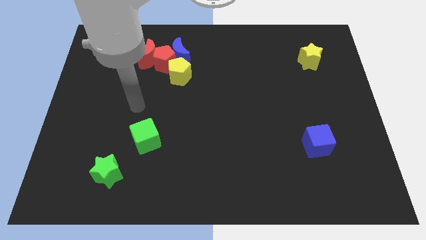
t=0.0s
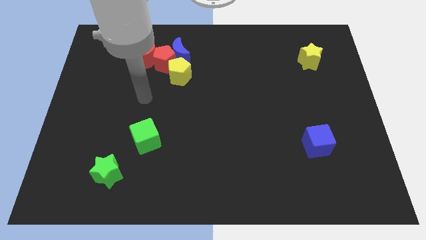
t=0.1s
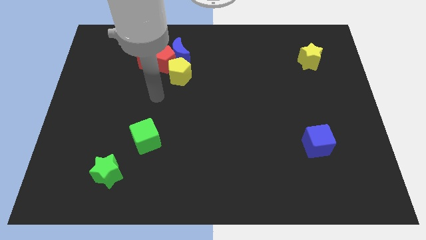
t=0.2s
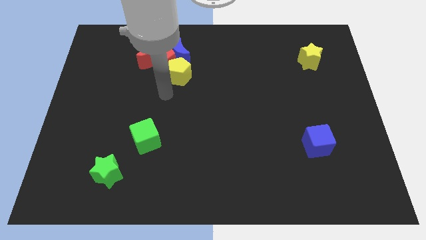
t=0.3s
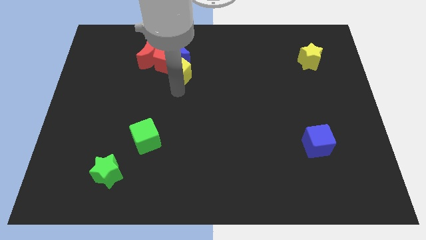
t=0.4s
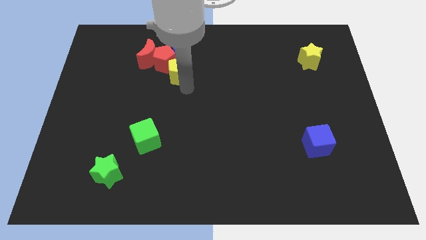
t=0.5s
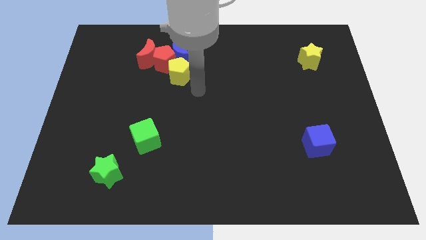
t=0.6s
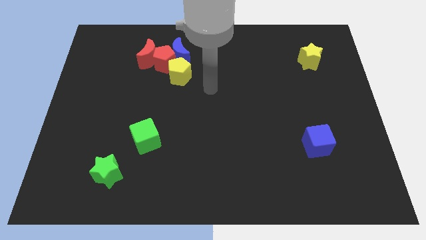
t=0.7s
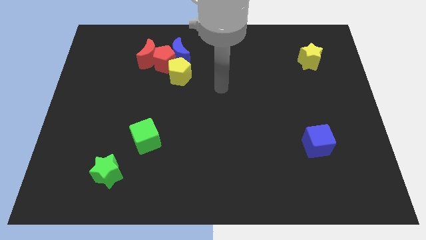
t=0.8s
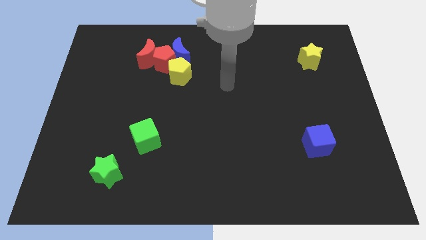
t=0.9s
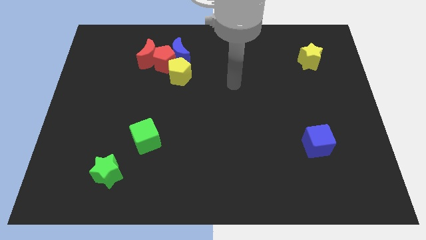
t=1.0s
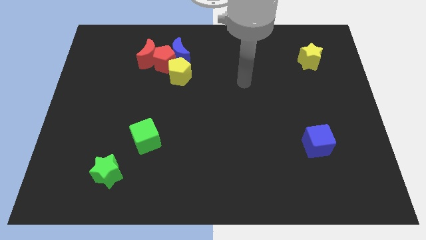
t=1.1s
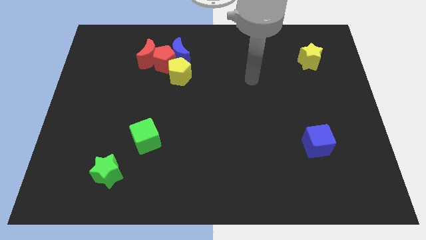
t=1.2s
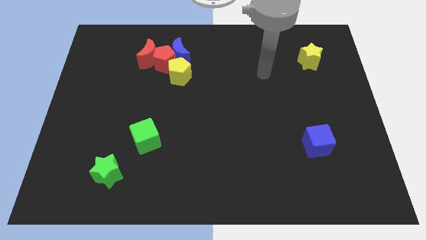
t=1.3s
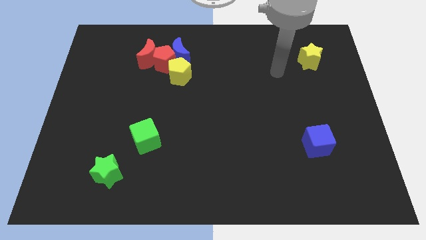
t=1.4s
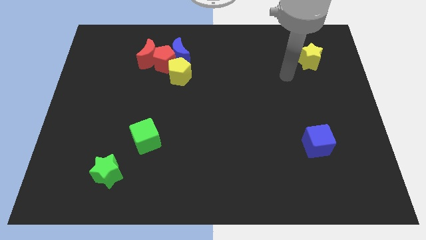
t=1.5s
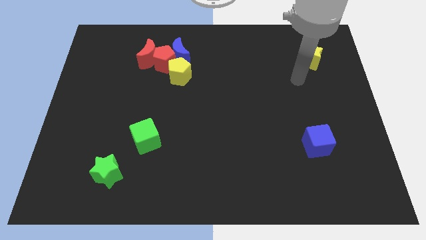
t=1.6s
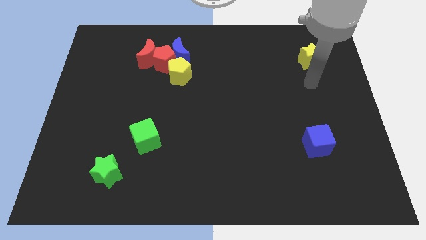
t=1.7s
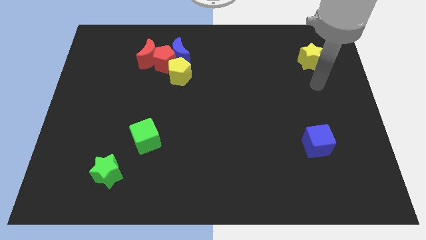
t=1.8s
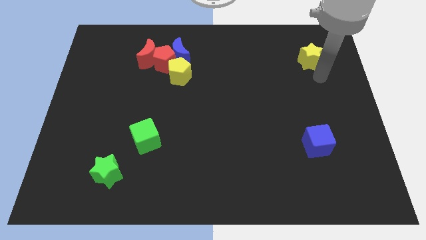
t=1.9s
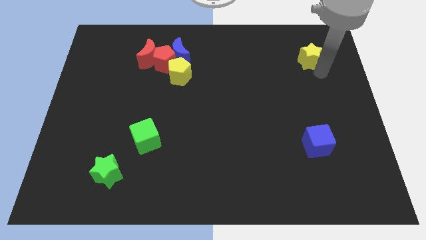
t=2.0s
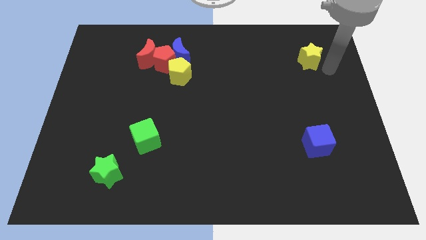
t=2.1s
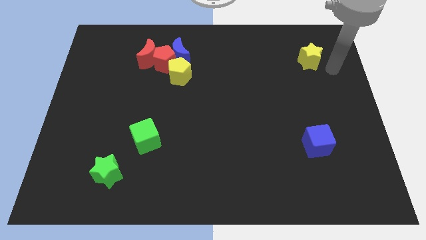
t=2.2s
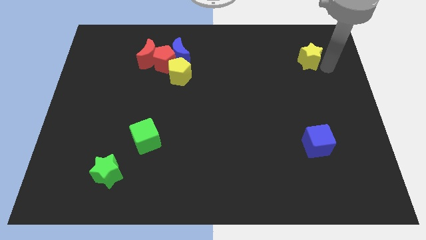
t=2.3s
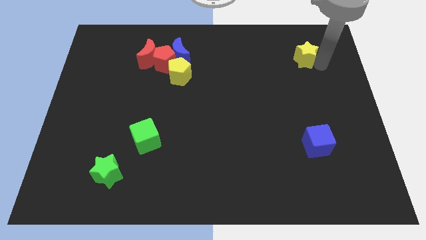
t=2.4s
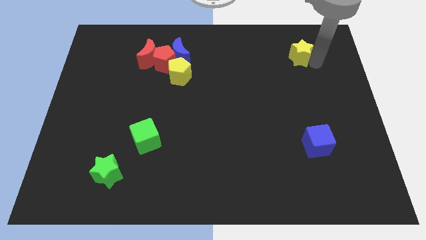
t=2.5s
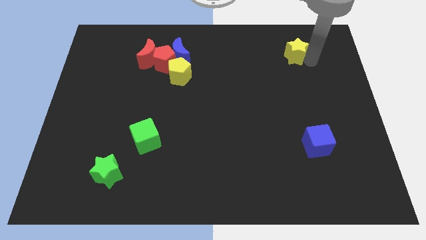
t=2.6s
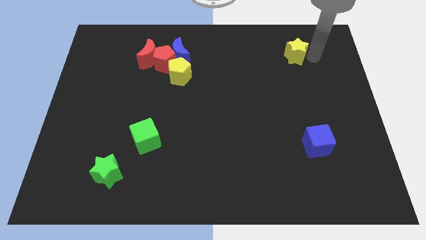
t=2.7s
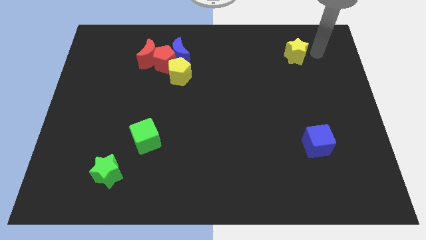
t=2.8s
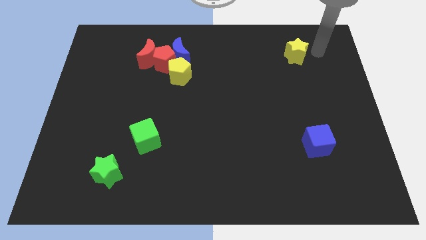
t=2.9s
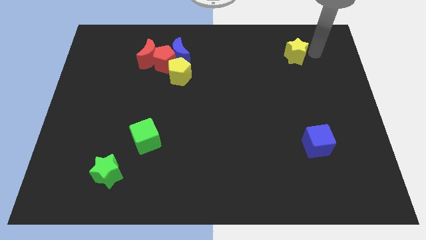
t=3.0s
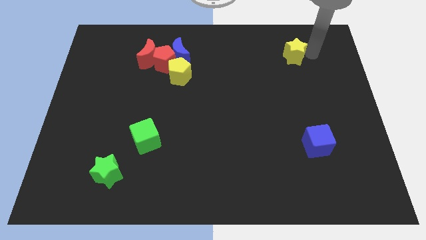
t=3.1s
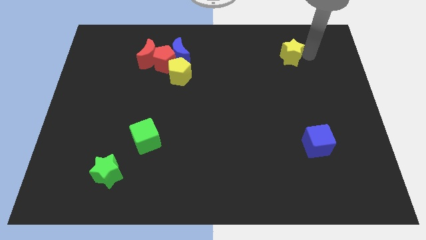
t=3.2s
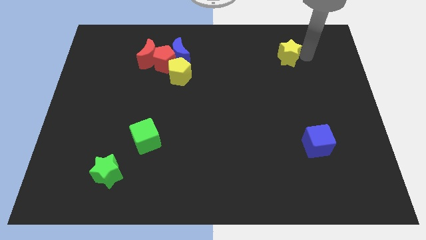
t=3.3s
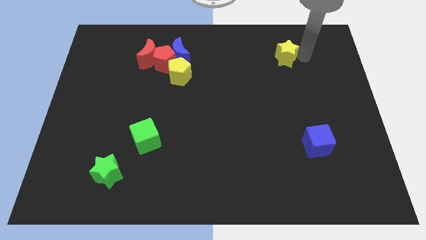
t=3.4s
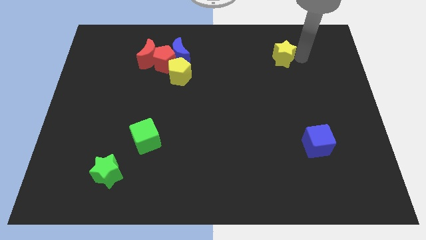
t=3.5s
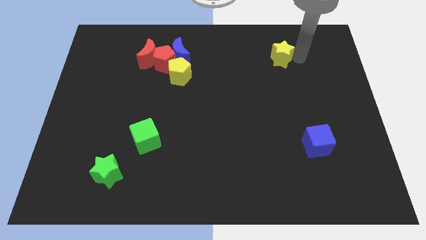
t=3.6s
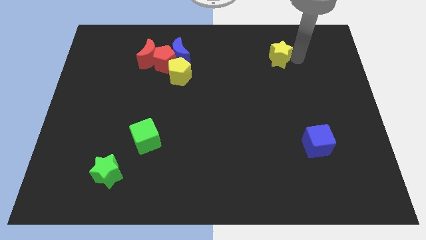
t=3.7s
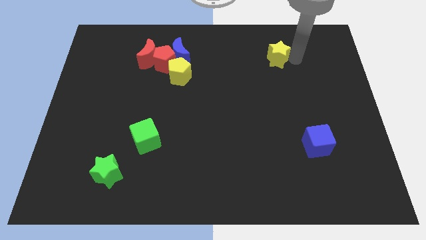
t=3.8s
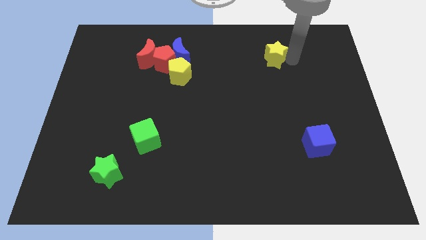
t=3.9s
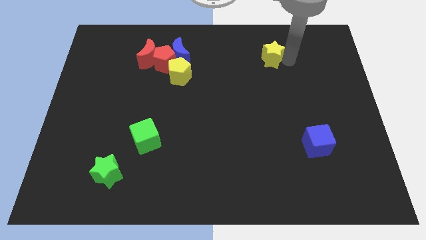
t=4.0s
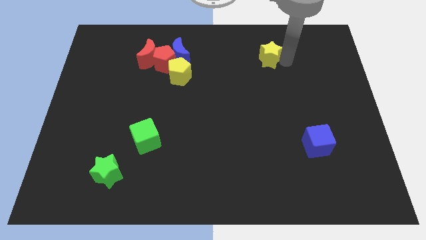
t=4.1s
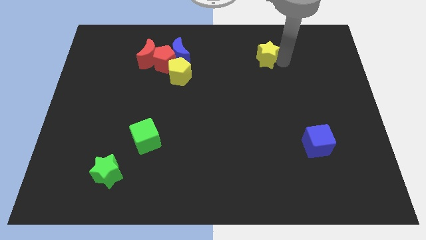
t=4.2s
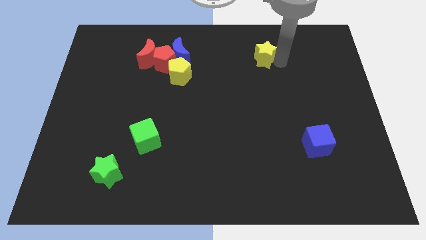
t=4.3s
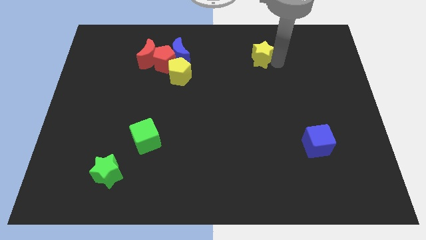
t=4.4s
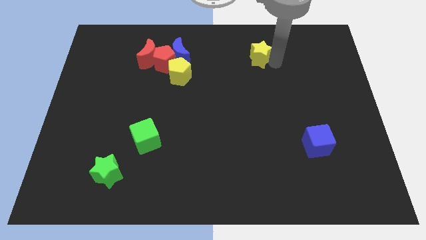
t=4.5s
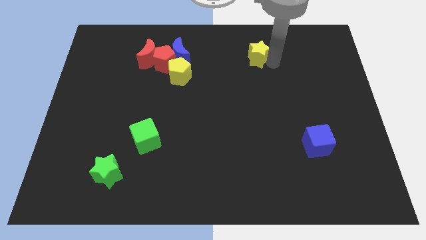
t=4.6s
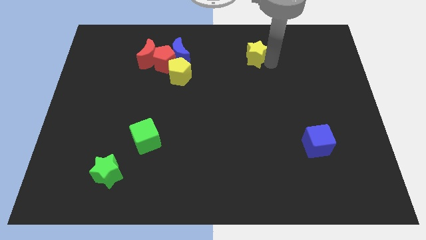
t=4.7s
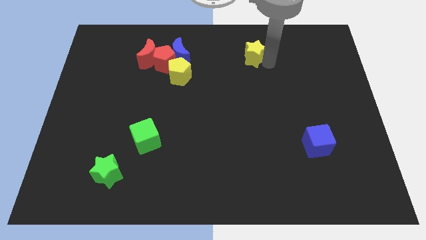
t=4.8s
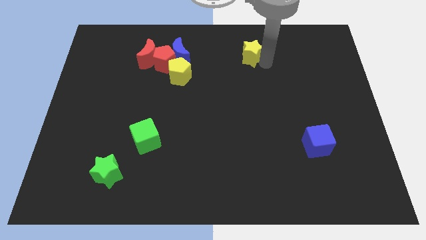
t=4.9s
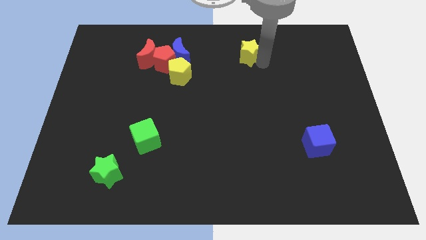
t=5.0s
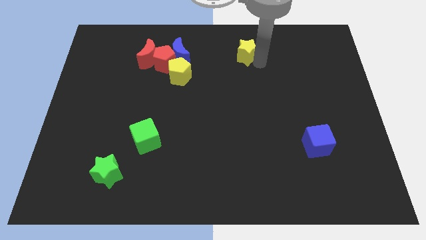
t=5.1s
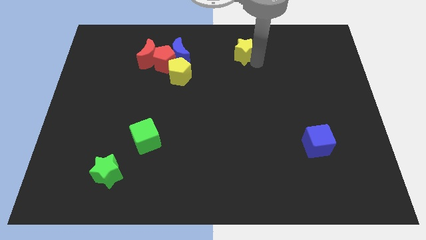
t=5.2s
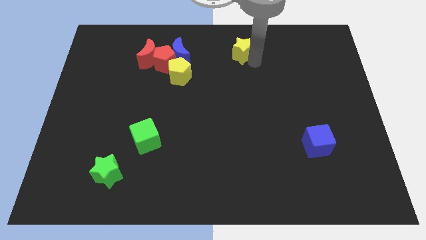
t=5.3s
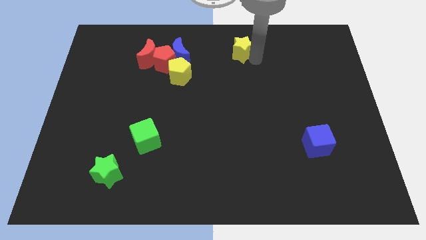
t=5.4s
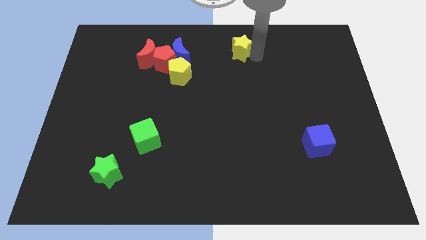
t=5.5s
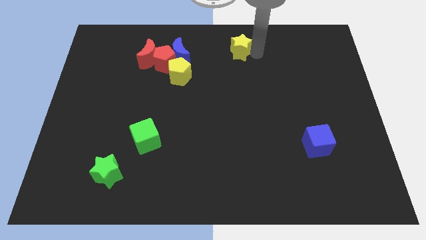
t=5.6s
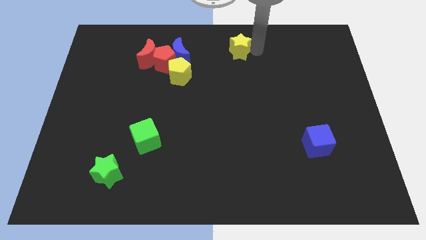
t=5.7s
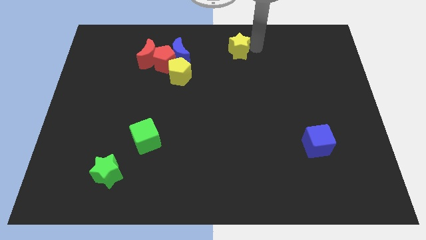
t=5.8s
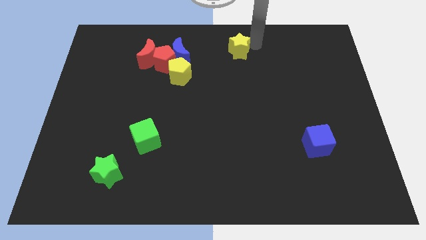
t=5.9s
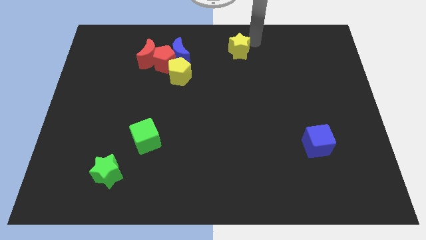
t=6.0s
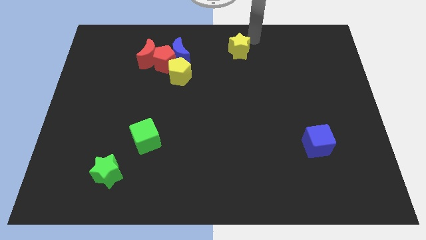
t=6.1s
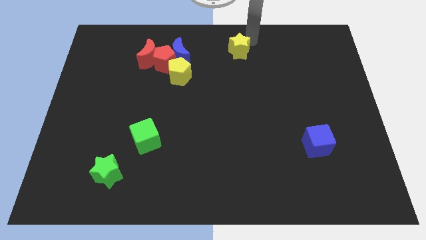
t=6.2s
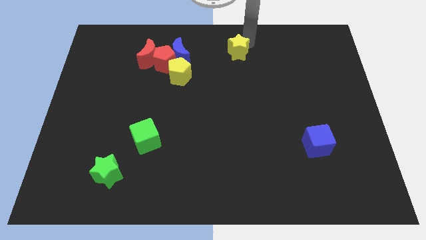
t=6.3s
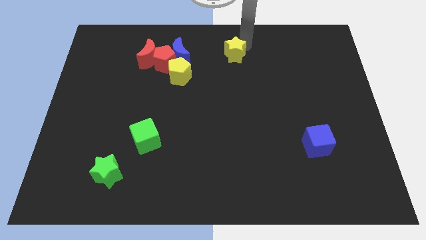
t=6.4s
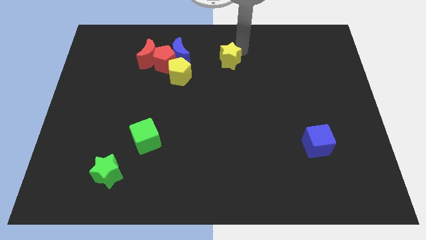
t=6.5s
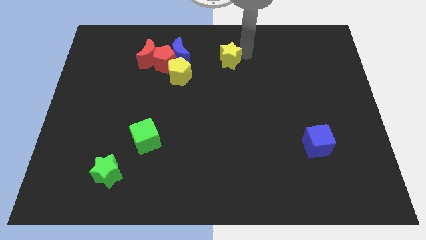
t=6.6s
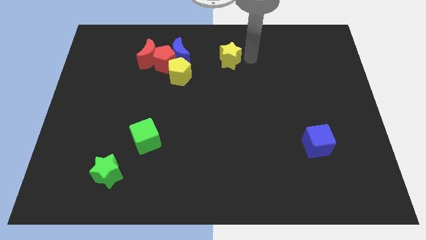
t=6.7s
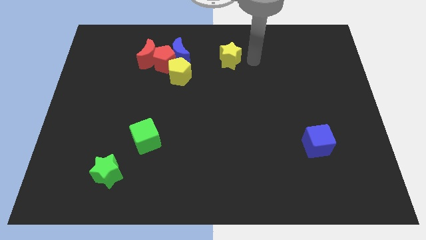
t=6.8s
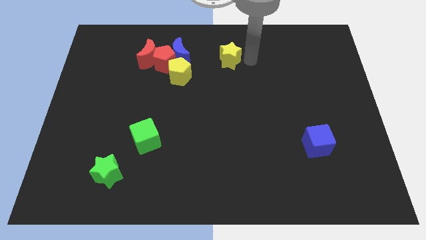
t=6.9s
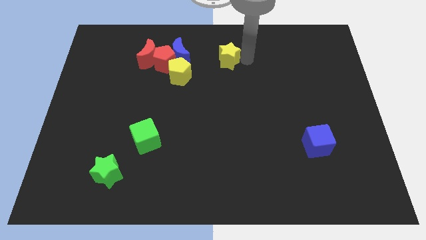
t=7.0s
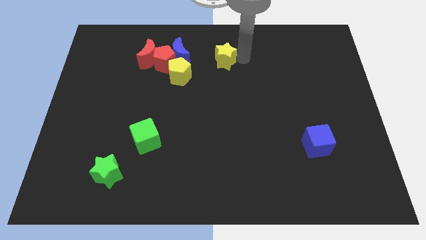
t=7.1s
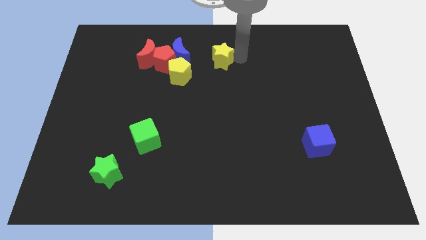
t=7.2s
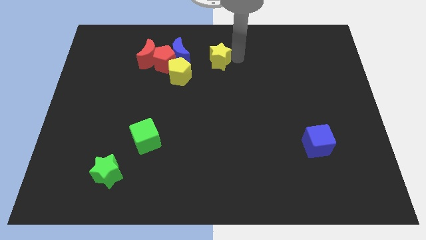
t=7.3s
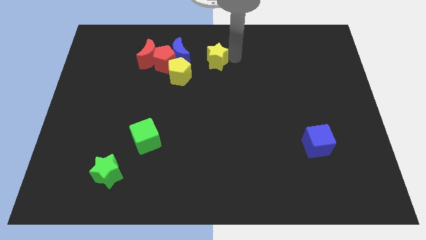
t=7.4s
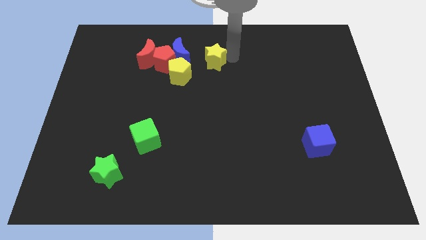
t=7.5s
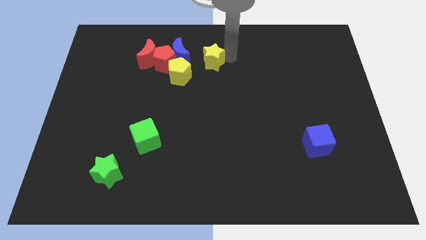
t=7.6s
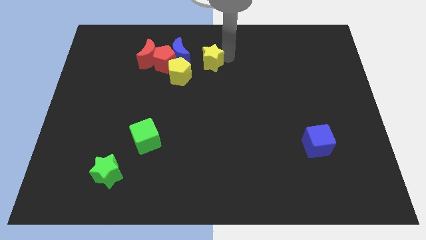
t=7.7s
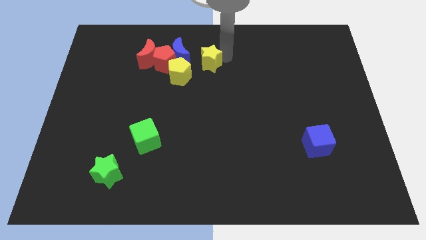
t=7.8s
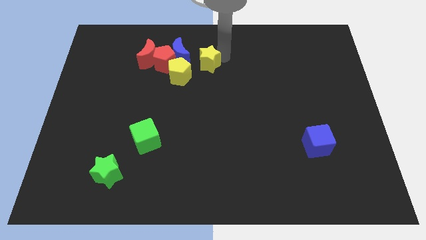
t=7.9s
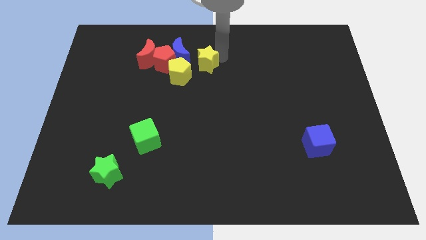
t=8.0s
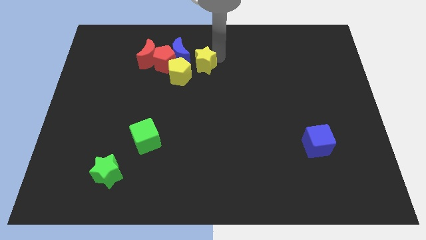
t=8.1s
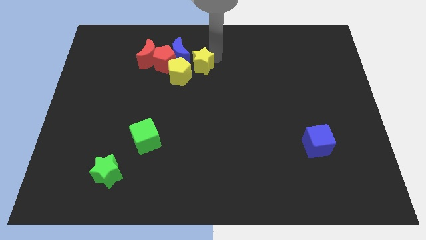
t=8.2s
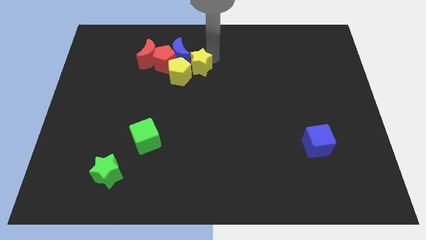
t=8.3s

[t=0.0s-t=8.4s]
push the yellow star towards the blue moon
